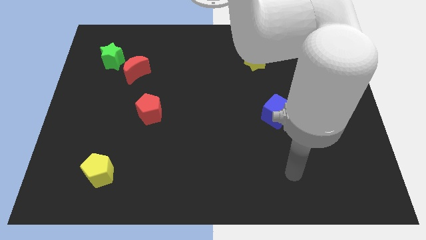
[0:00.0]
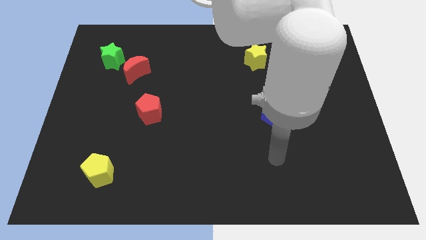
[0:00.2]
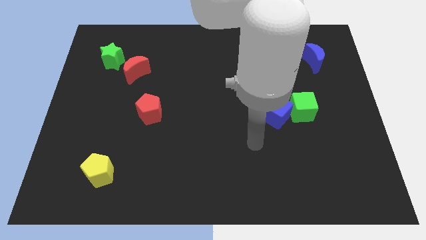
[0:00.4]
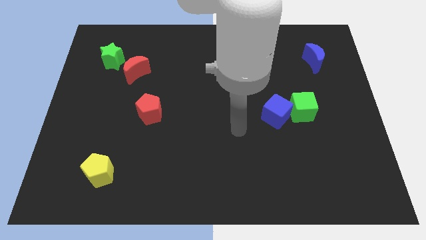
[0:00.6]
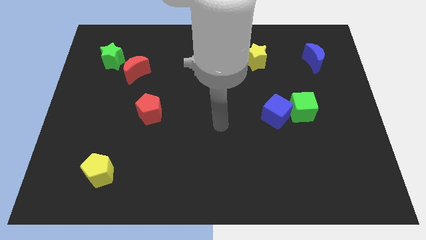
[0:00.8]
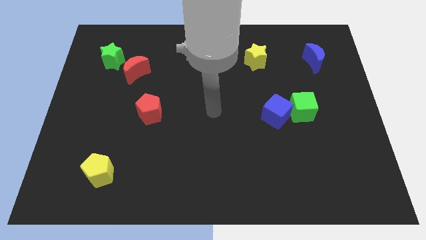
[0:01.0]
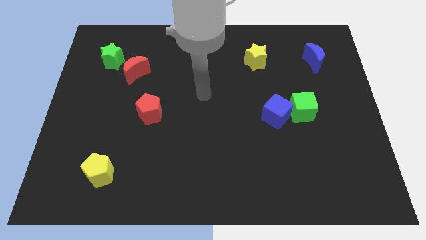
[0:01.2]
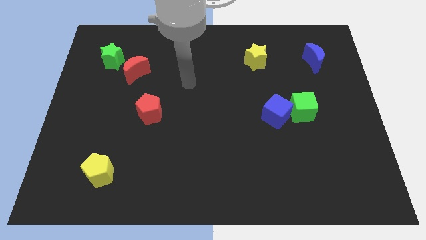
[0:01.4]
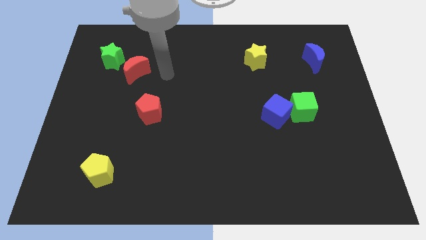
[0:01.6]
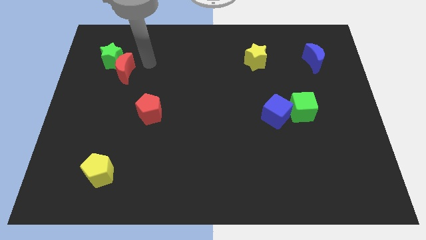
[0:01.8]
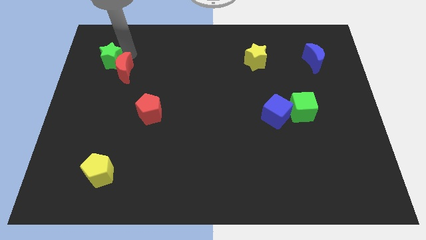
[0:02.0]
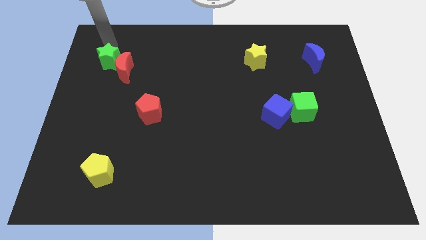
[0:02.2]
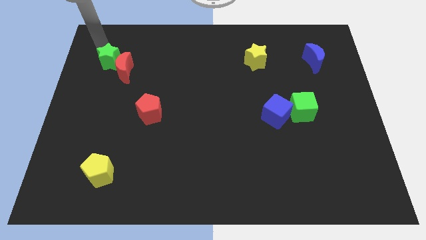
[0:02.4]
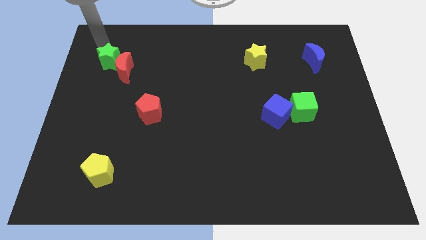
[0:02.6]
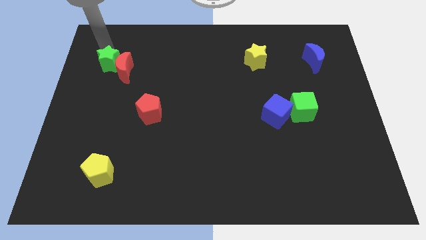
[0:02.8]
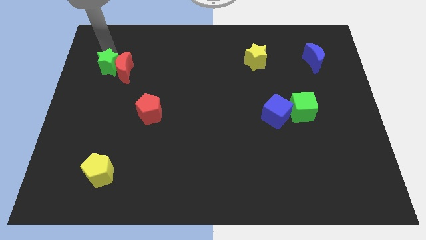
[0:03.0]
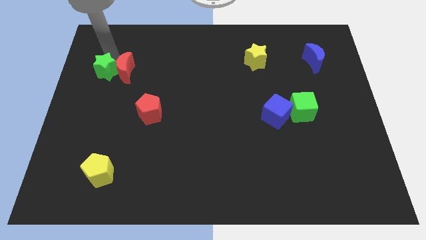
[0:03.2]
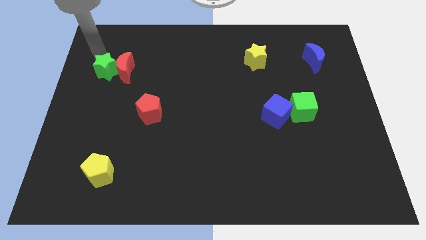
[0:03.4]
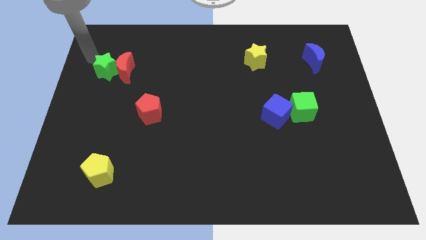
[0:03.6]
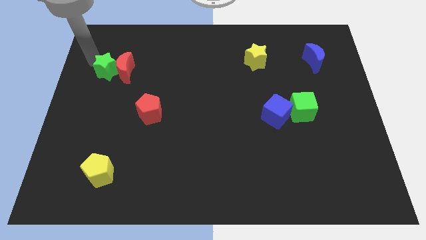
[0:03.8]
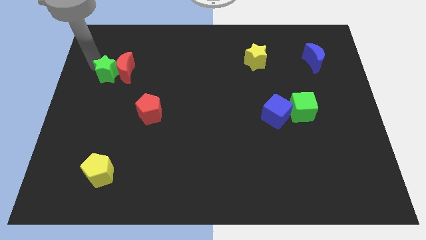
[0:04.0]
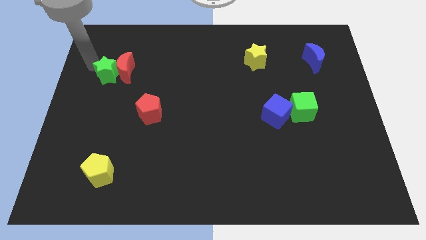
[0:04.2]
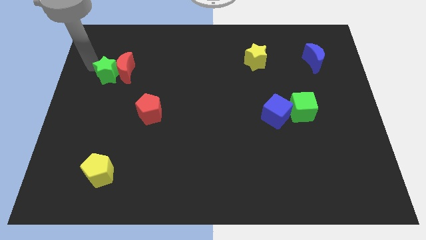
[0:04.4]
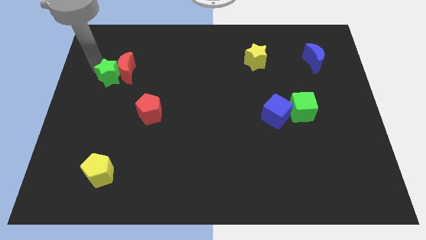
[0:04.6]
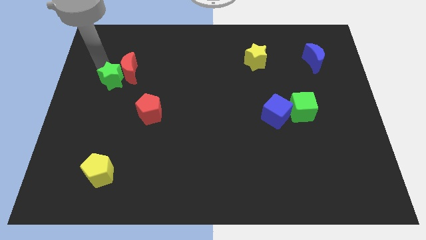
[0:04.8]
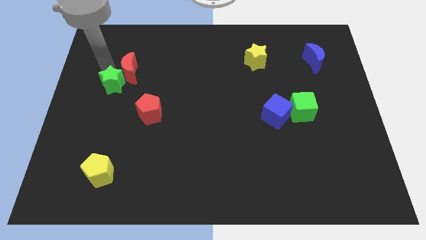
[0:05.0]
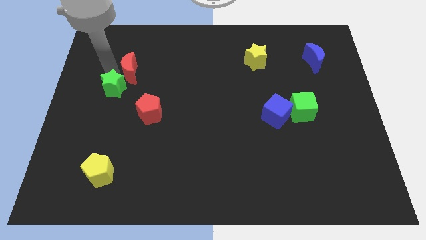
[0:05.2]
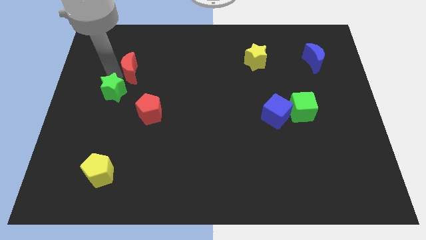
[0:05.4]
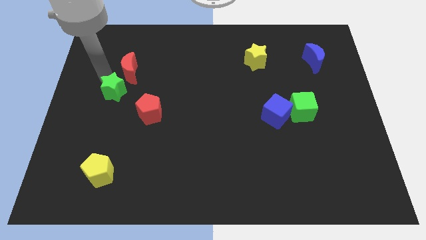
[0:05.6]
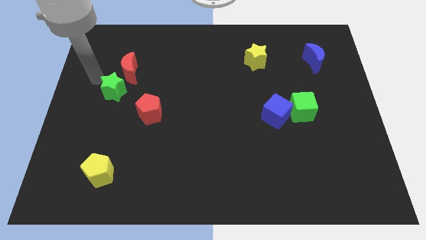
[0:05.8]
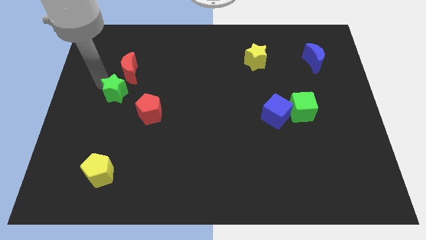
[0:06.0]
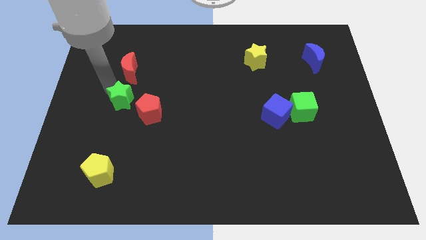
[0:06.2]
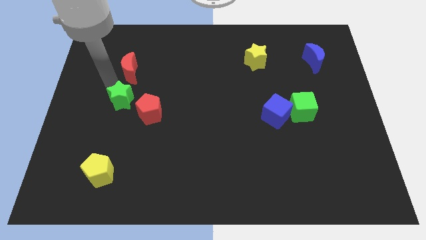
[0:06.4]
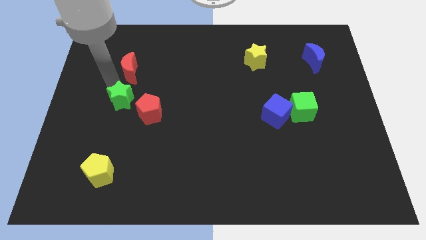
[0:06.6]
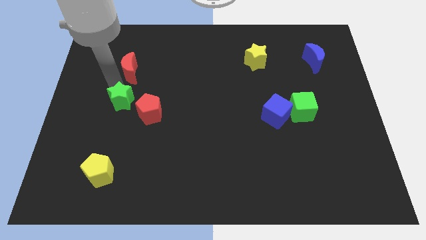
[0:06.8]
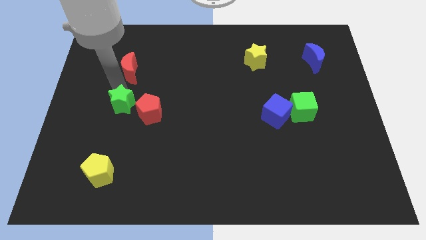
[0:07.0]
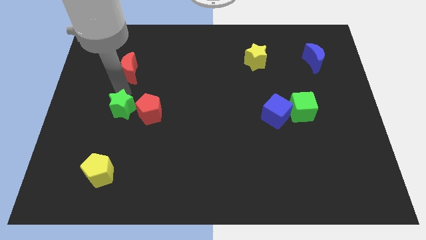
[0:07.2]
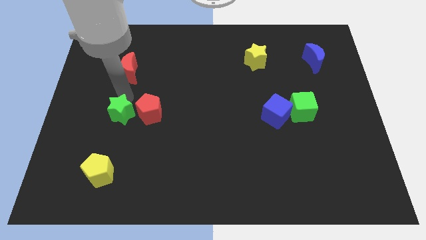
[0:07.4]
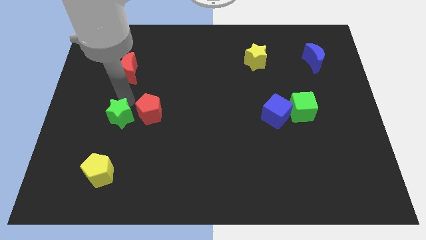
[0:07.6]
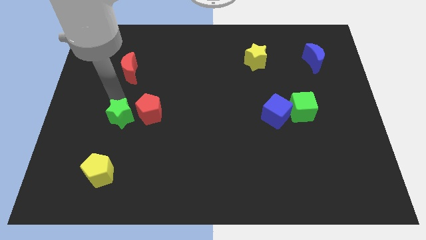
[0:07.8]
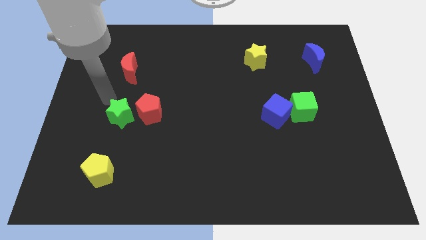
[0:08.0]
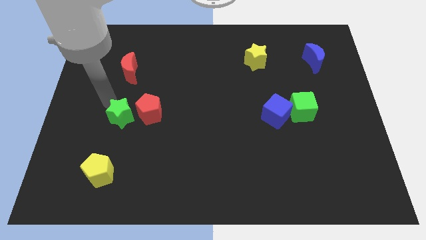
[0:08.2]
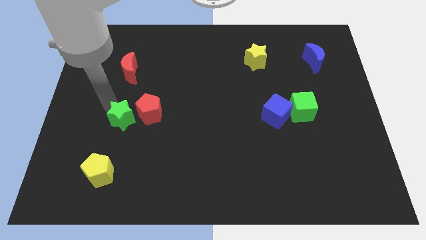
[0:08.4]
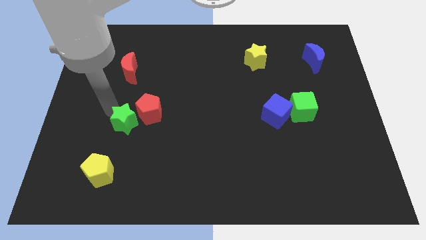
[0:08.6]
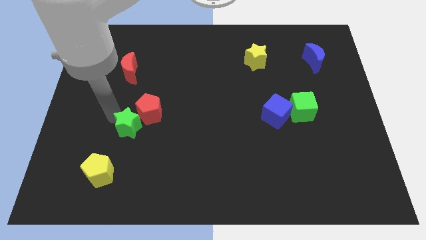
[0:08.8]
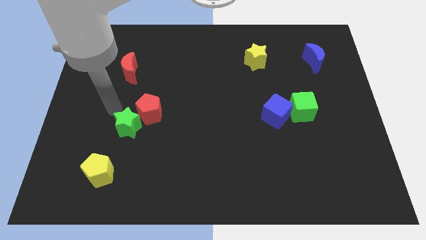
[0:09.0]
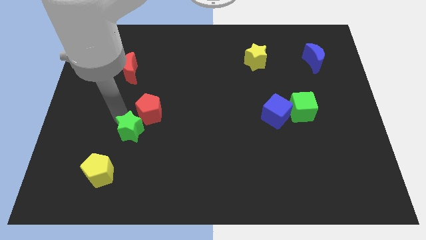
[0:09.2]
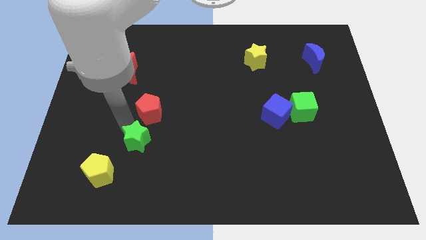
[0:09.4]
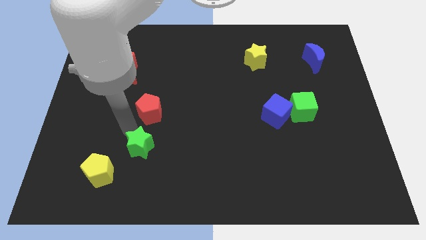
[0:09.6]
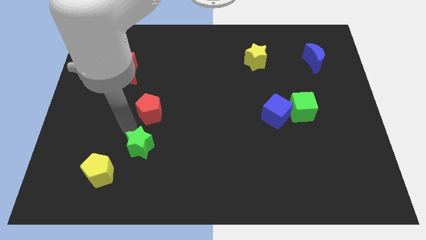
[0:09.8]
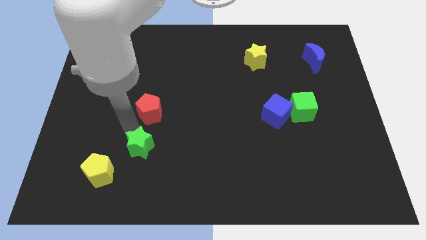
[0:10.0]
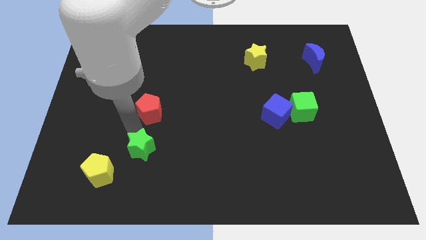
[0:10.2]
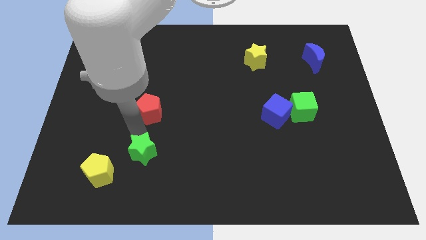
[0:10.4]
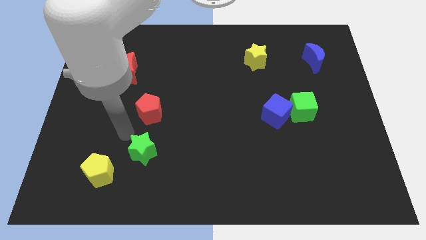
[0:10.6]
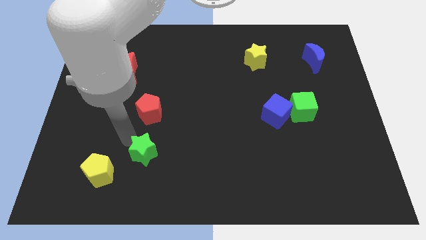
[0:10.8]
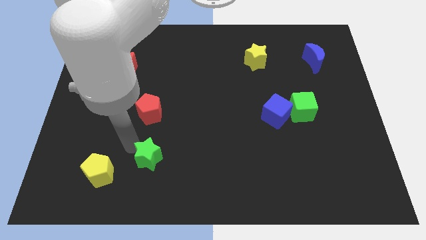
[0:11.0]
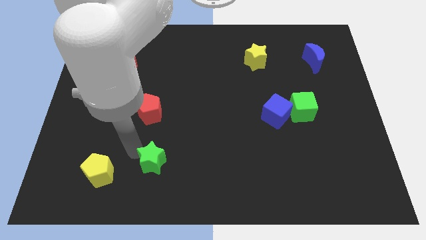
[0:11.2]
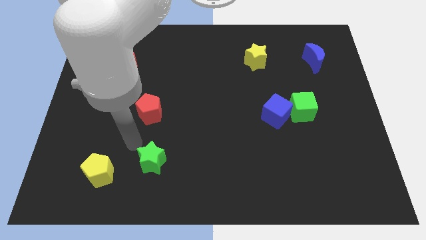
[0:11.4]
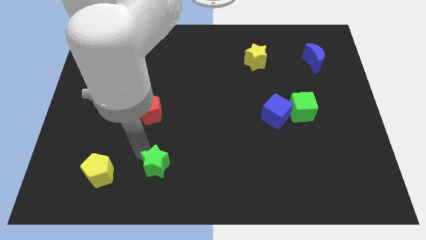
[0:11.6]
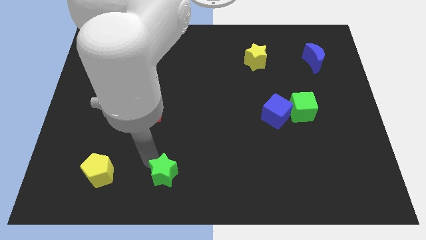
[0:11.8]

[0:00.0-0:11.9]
slide the green star to the bottom

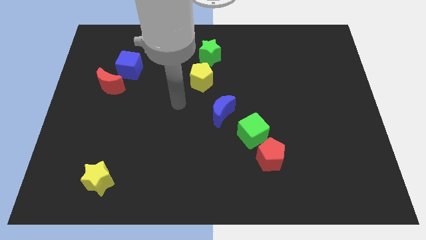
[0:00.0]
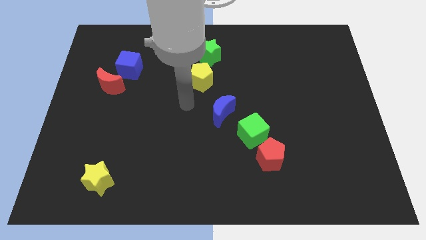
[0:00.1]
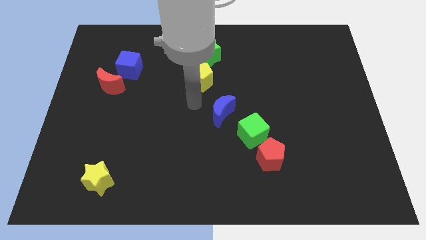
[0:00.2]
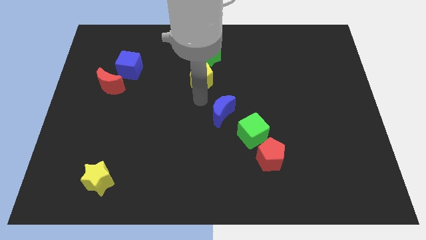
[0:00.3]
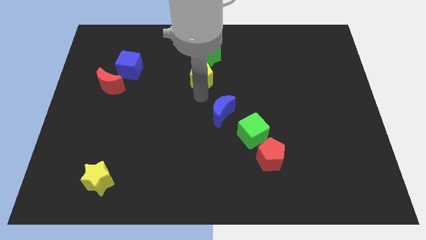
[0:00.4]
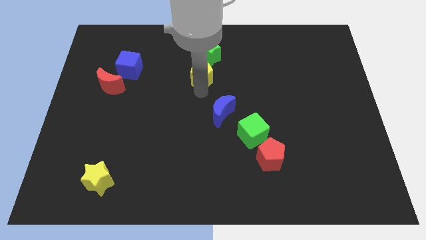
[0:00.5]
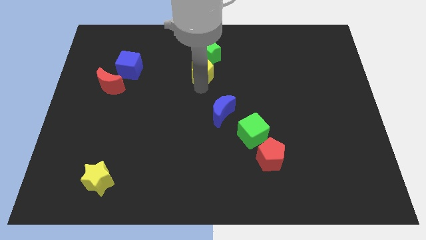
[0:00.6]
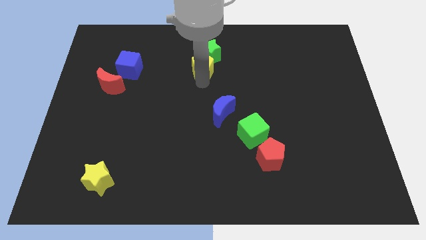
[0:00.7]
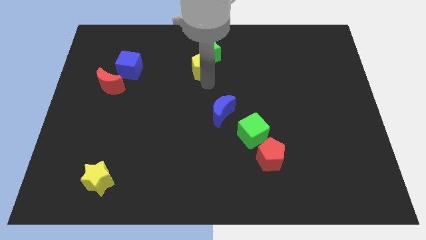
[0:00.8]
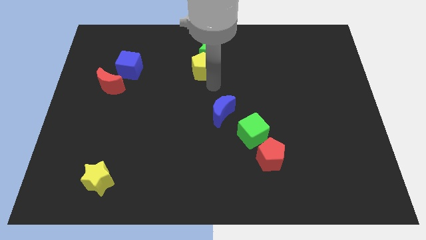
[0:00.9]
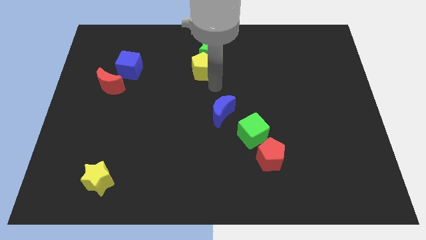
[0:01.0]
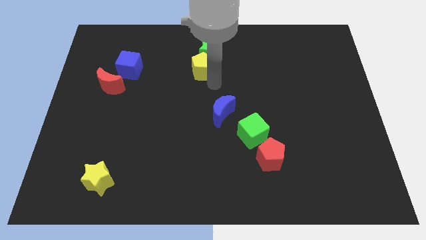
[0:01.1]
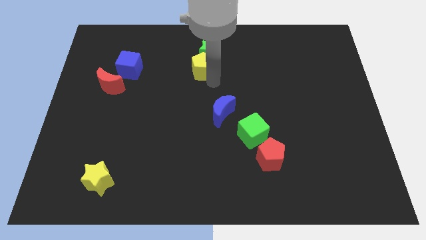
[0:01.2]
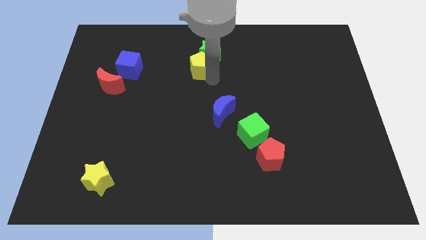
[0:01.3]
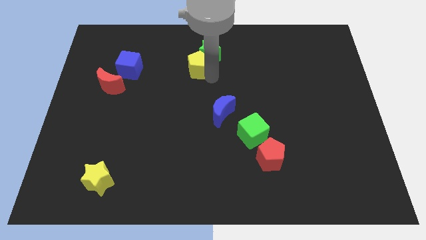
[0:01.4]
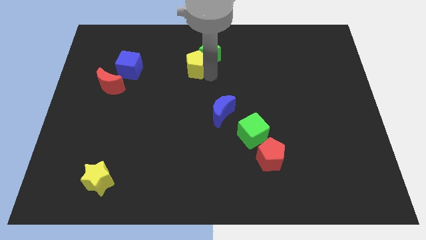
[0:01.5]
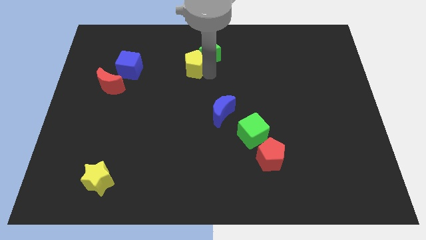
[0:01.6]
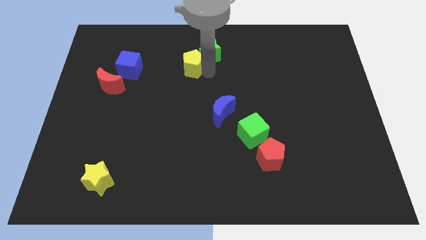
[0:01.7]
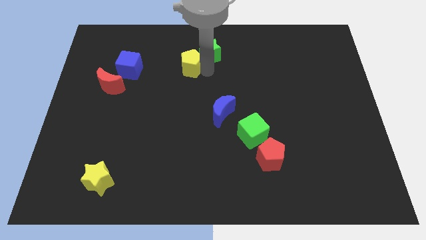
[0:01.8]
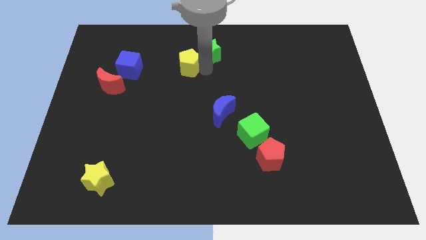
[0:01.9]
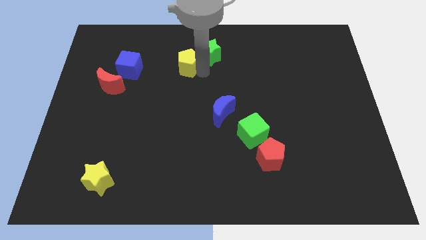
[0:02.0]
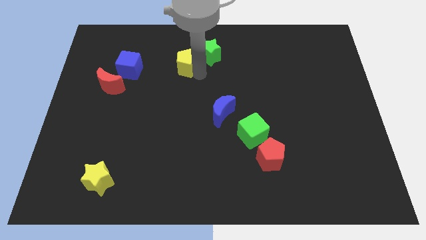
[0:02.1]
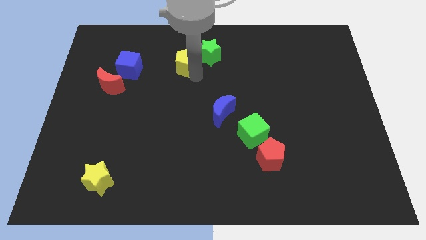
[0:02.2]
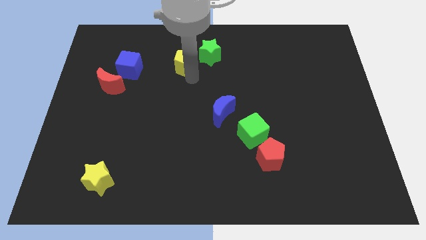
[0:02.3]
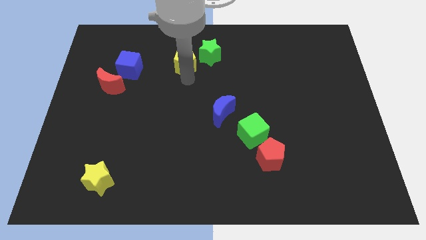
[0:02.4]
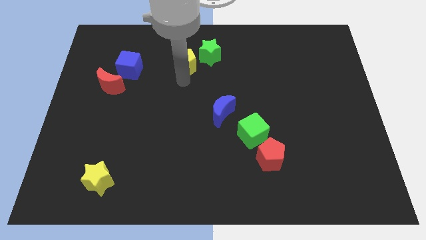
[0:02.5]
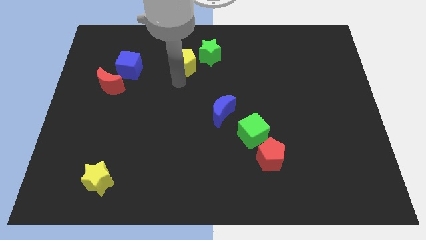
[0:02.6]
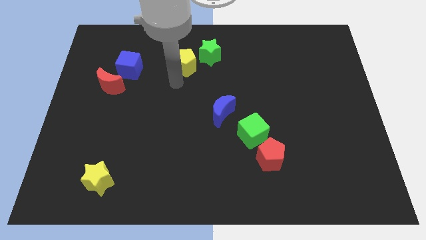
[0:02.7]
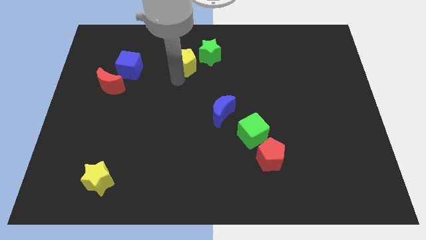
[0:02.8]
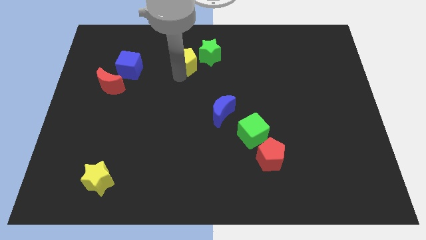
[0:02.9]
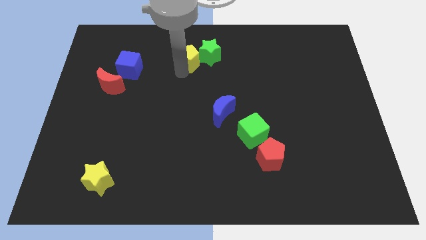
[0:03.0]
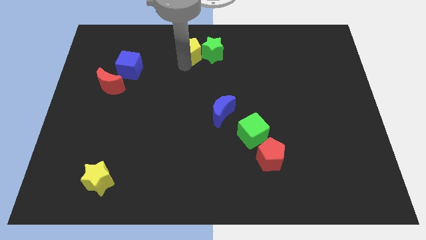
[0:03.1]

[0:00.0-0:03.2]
push the yellow pentagon to the towards your base
